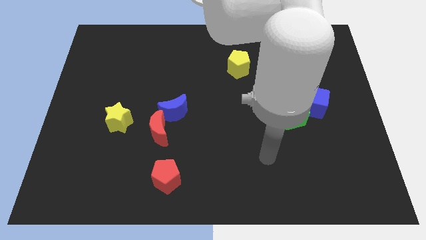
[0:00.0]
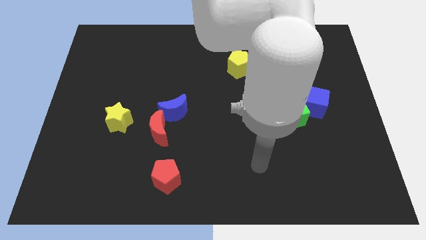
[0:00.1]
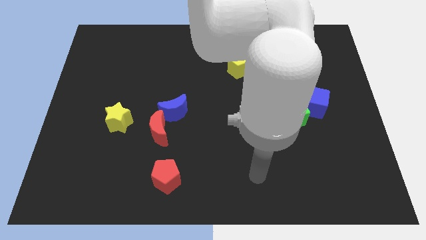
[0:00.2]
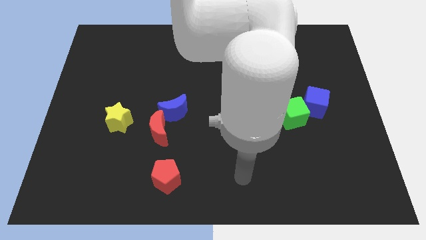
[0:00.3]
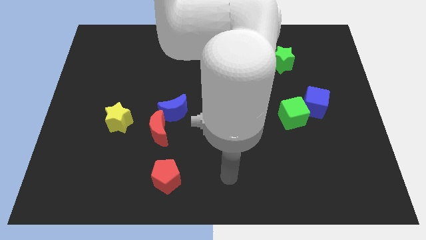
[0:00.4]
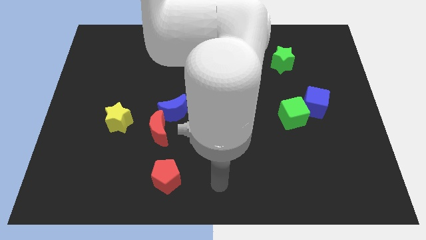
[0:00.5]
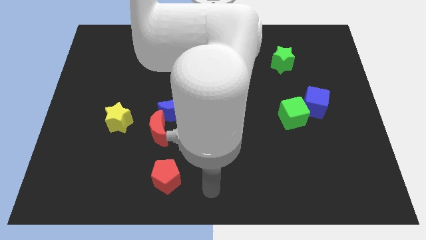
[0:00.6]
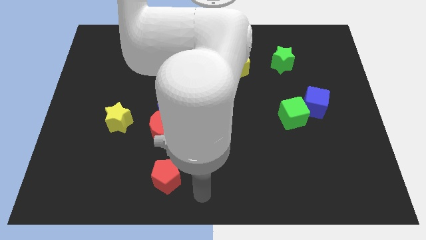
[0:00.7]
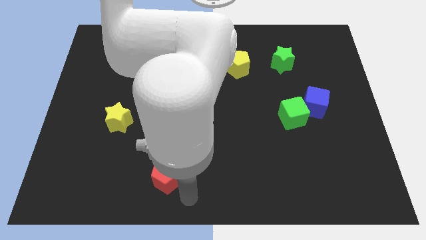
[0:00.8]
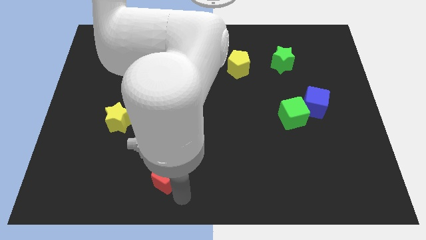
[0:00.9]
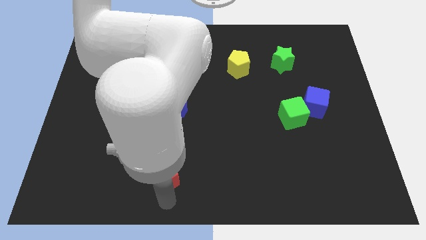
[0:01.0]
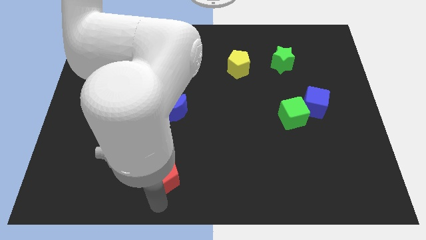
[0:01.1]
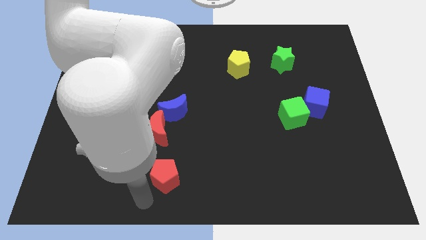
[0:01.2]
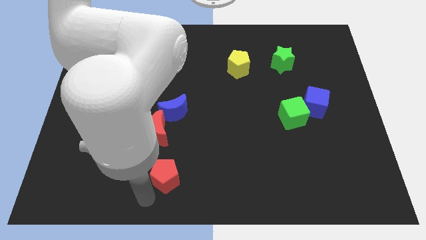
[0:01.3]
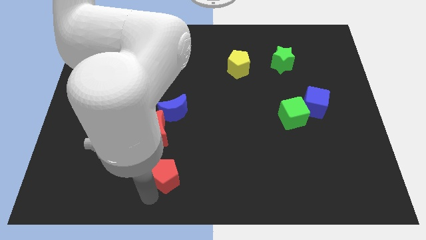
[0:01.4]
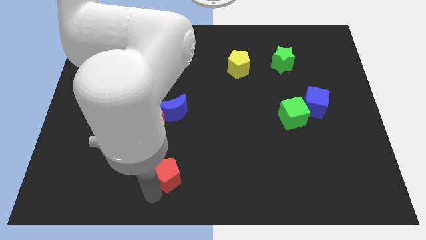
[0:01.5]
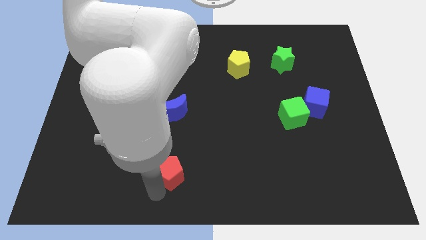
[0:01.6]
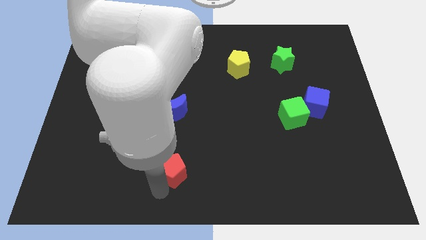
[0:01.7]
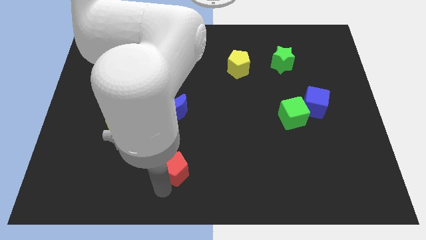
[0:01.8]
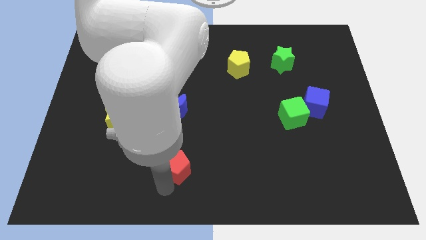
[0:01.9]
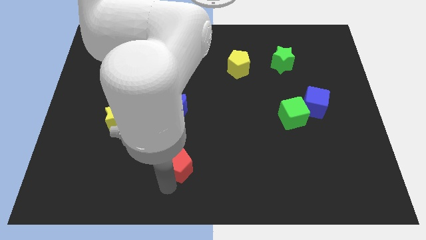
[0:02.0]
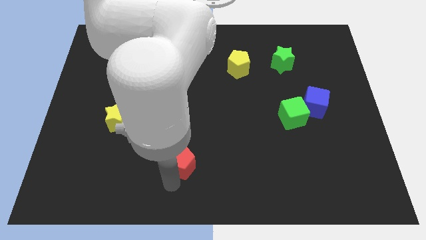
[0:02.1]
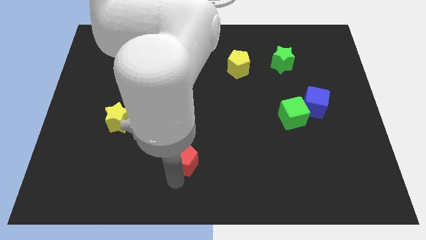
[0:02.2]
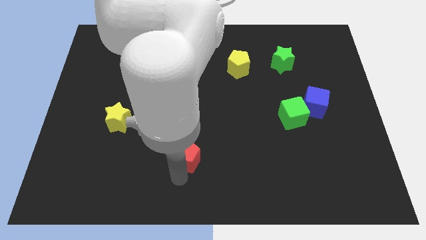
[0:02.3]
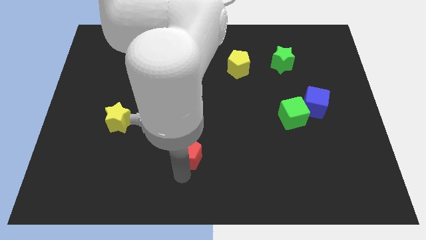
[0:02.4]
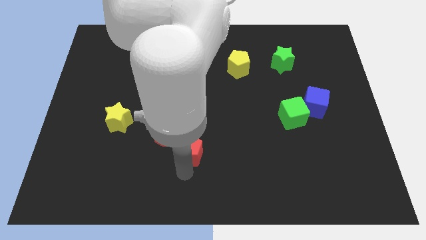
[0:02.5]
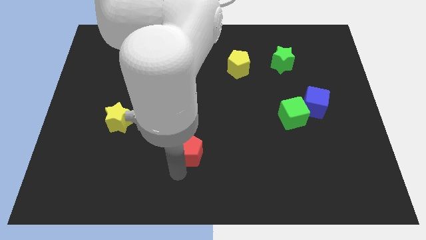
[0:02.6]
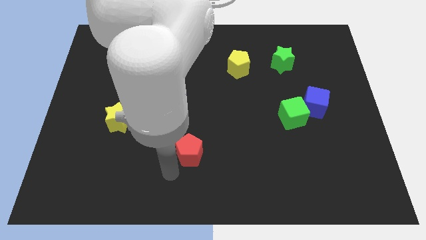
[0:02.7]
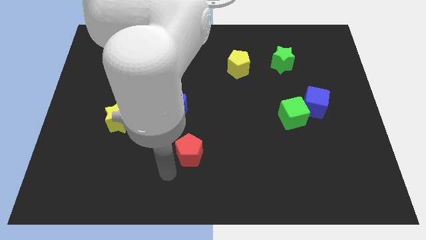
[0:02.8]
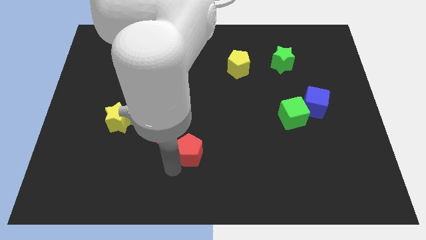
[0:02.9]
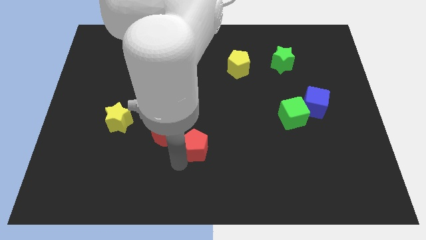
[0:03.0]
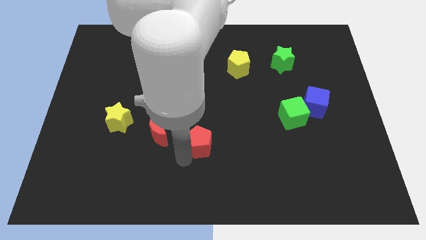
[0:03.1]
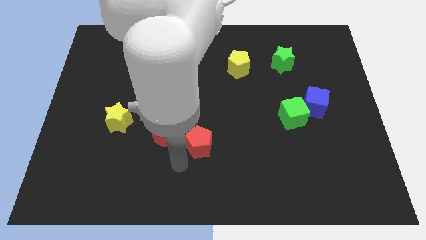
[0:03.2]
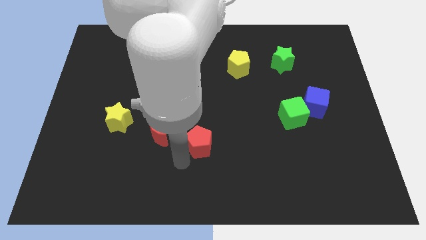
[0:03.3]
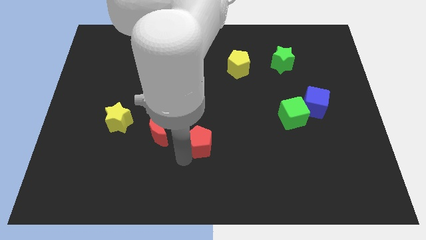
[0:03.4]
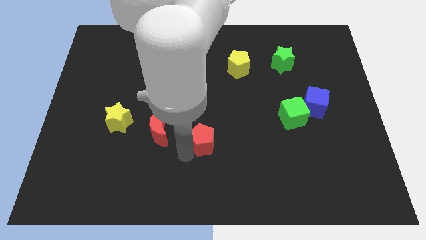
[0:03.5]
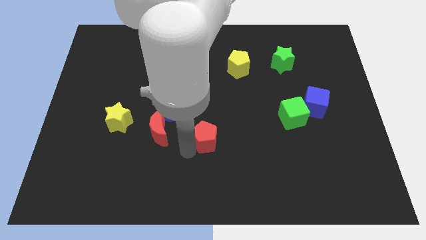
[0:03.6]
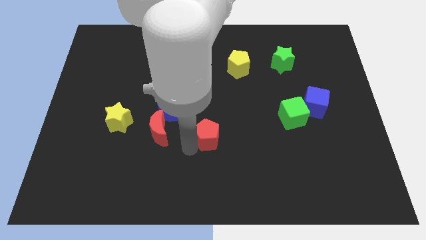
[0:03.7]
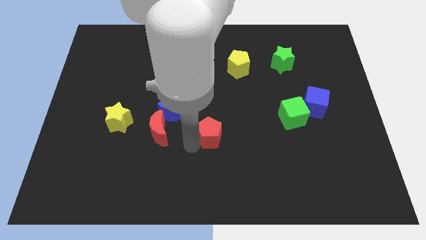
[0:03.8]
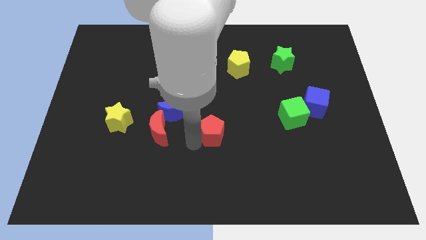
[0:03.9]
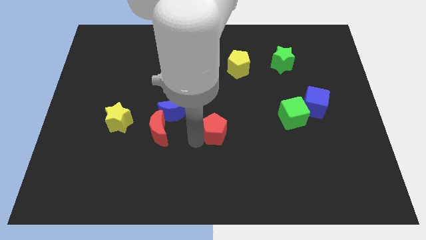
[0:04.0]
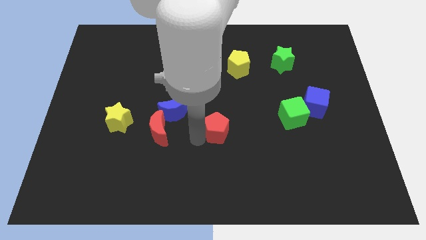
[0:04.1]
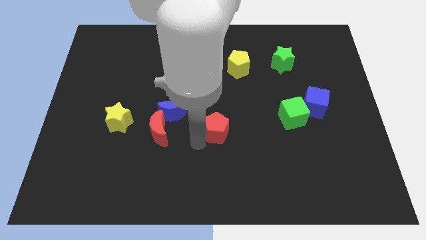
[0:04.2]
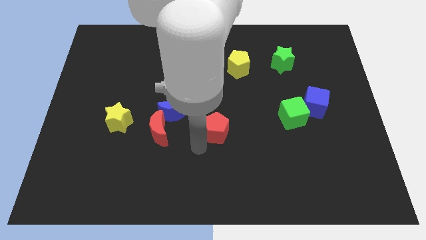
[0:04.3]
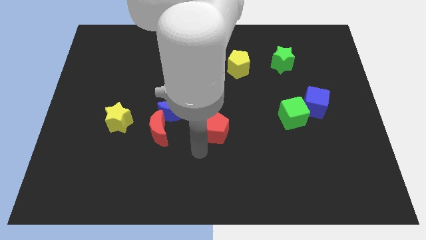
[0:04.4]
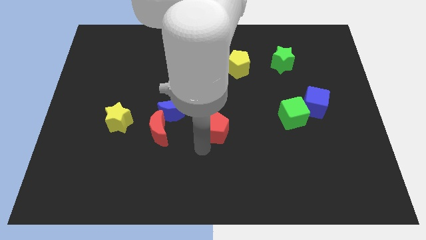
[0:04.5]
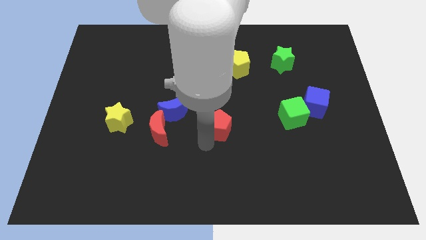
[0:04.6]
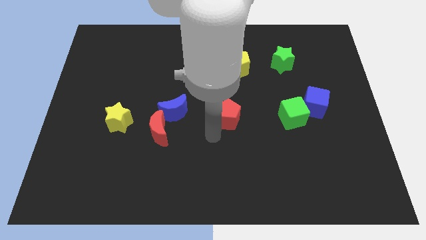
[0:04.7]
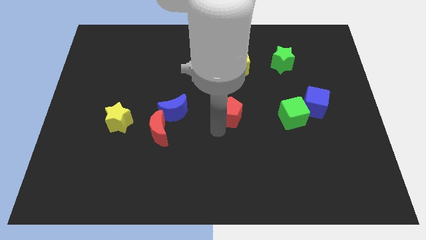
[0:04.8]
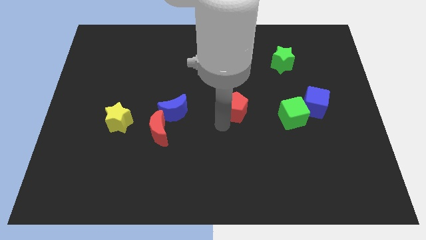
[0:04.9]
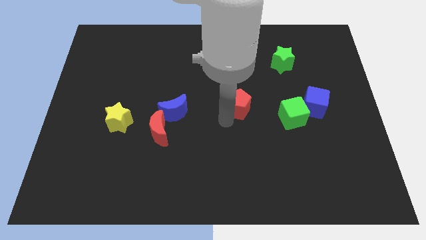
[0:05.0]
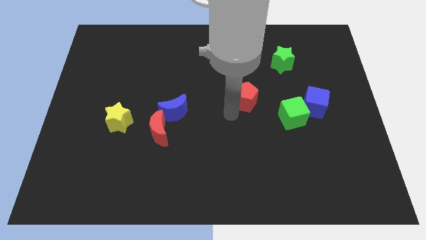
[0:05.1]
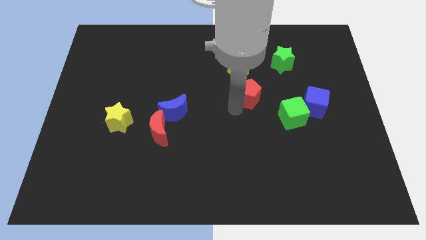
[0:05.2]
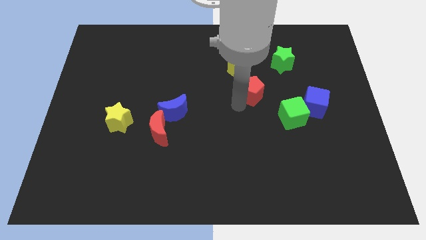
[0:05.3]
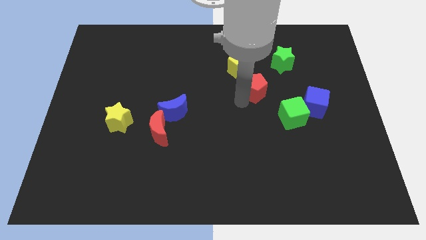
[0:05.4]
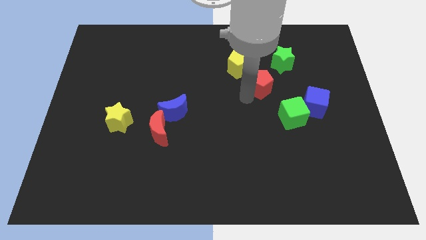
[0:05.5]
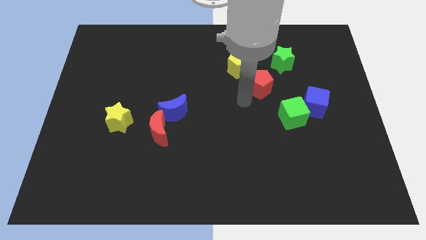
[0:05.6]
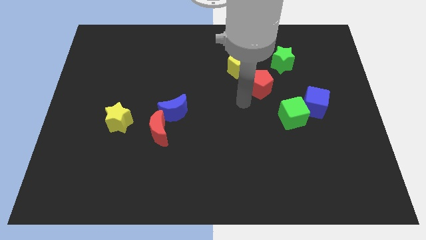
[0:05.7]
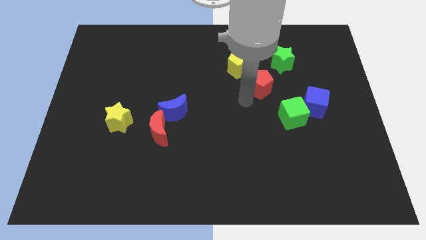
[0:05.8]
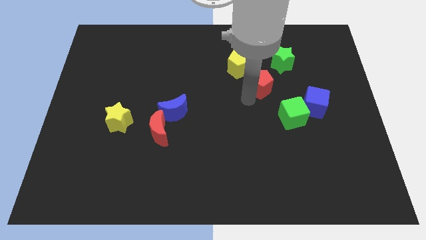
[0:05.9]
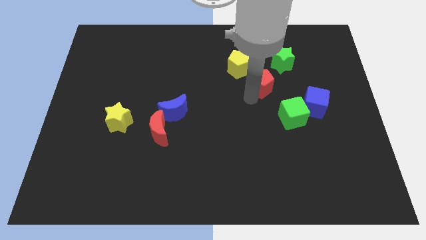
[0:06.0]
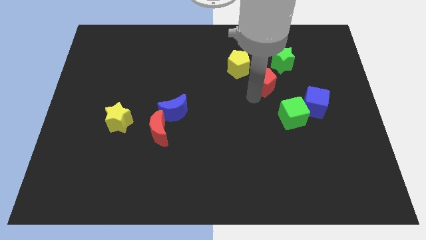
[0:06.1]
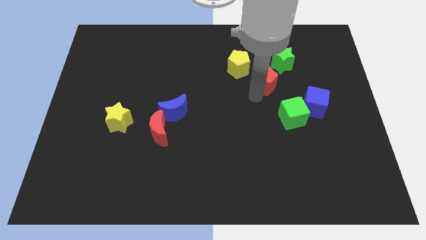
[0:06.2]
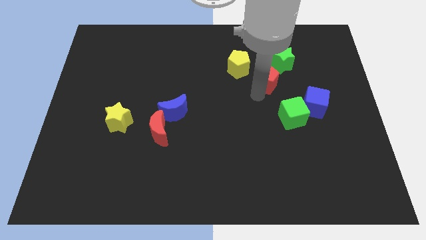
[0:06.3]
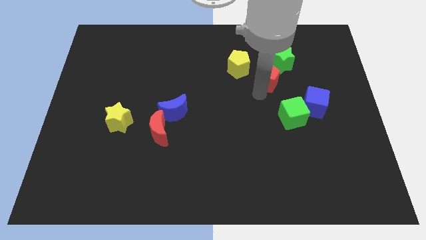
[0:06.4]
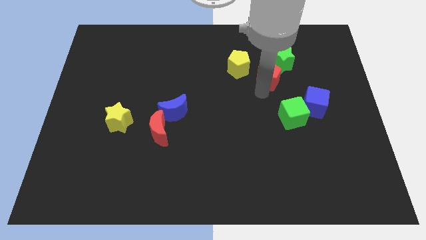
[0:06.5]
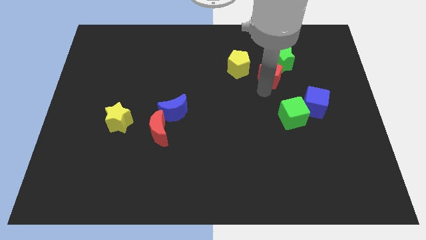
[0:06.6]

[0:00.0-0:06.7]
move the red pentagon towards the green star
